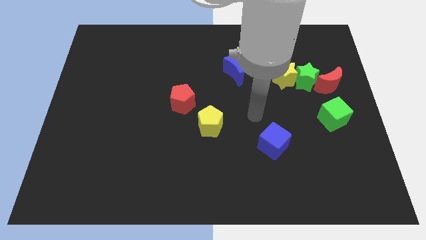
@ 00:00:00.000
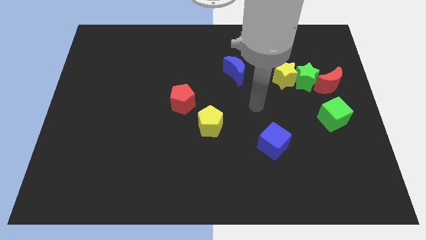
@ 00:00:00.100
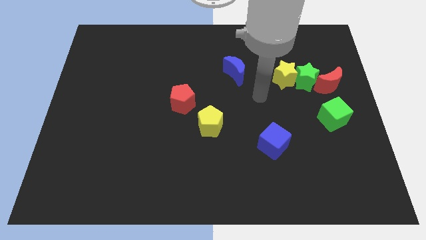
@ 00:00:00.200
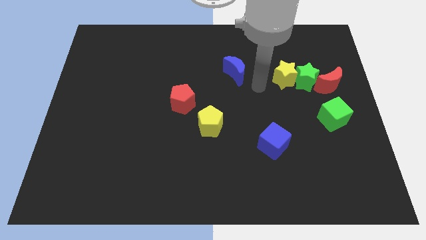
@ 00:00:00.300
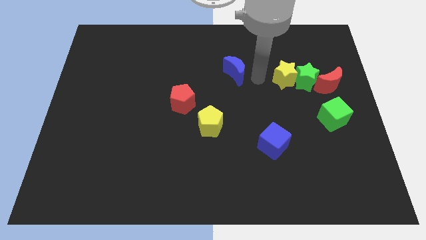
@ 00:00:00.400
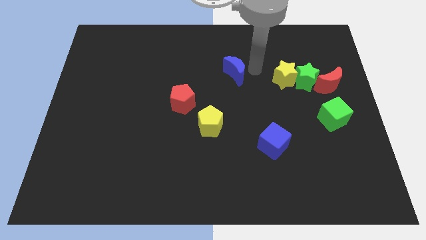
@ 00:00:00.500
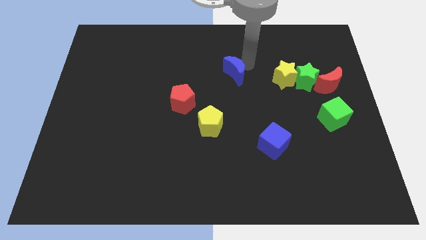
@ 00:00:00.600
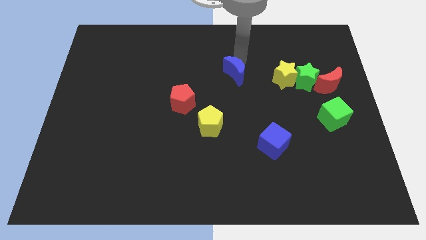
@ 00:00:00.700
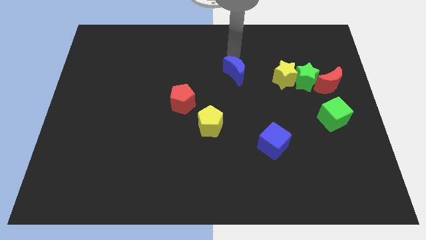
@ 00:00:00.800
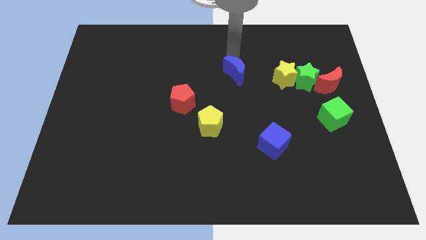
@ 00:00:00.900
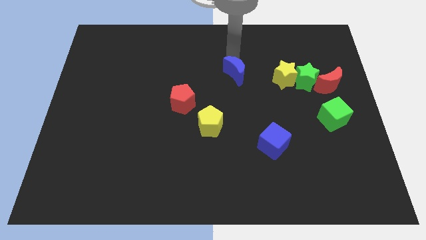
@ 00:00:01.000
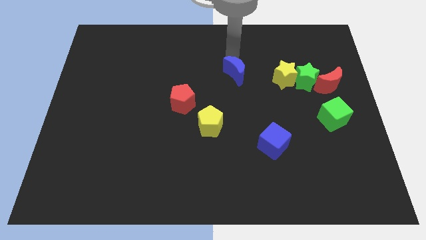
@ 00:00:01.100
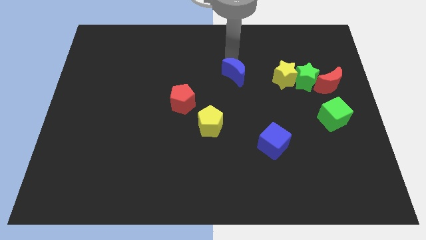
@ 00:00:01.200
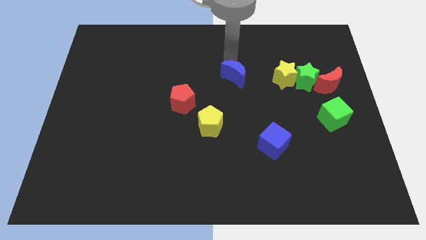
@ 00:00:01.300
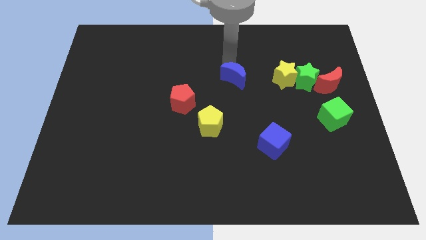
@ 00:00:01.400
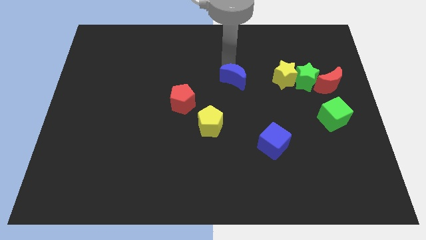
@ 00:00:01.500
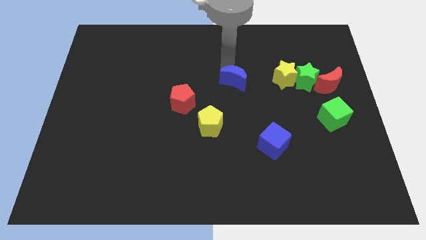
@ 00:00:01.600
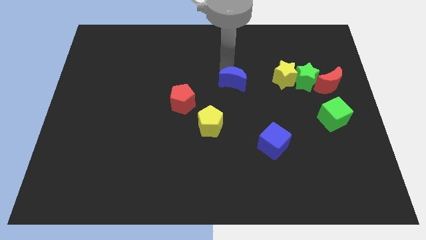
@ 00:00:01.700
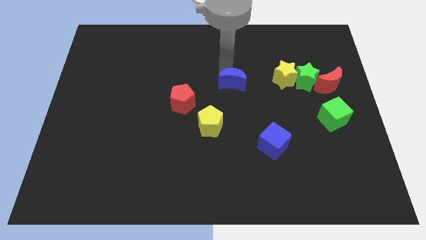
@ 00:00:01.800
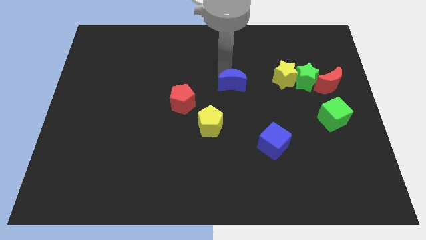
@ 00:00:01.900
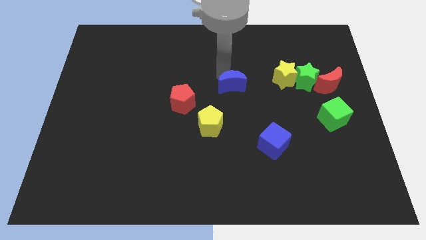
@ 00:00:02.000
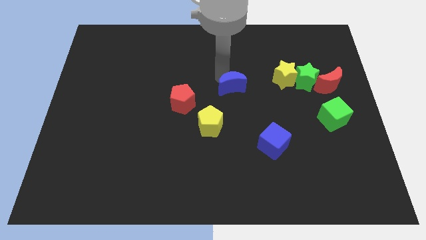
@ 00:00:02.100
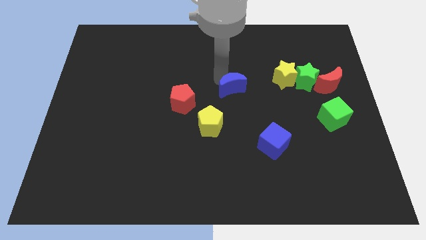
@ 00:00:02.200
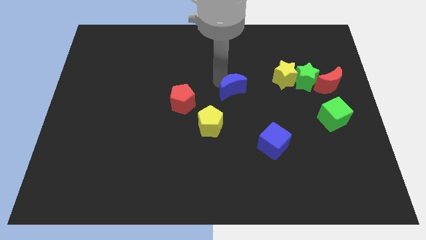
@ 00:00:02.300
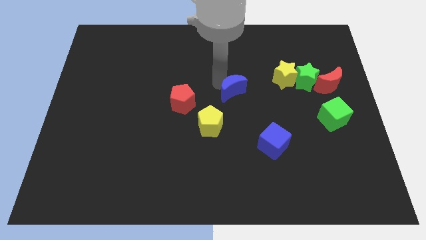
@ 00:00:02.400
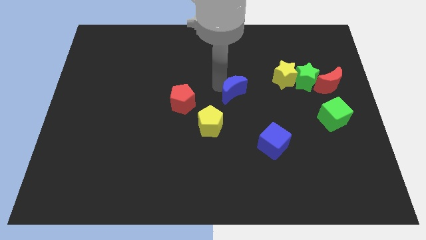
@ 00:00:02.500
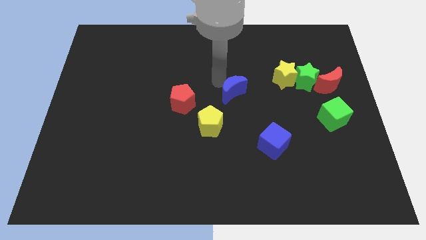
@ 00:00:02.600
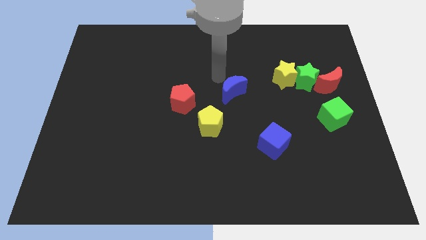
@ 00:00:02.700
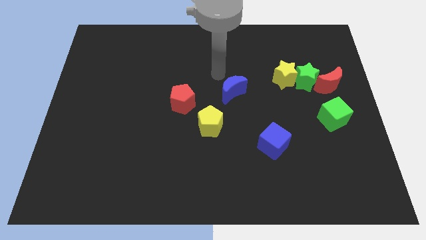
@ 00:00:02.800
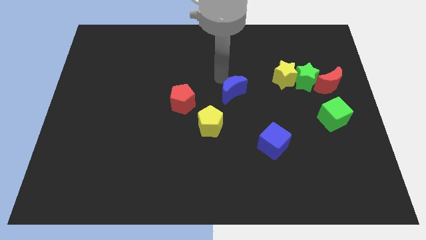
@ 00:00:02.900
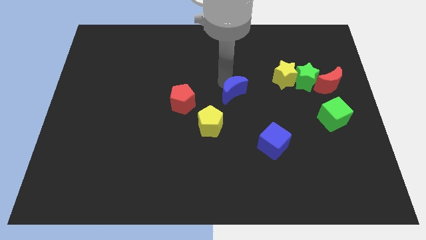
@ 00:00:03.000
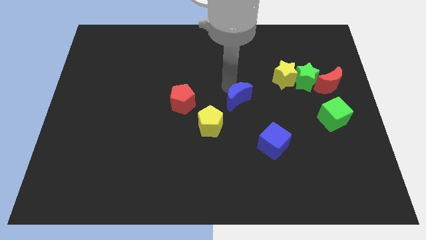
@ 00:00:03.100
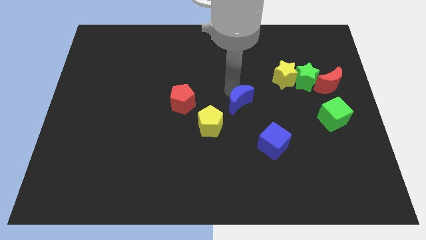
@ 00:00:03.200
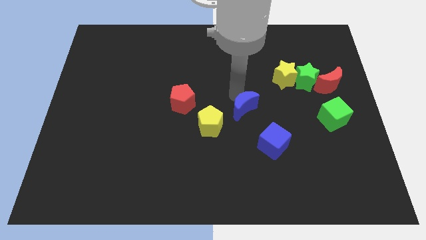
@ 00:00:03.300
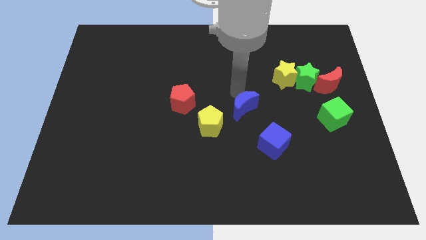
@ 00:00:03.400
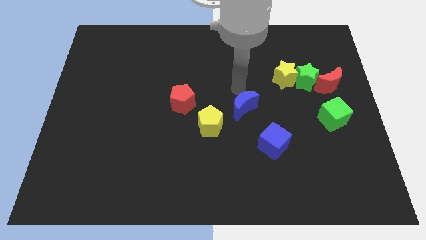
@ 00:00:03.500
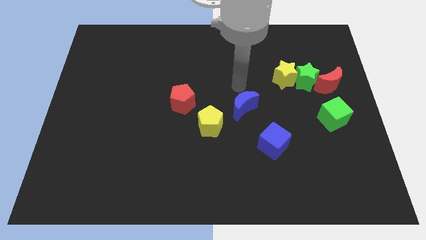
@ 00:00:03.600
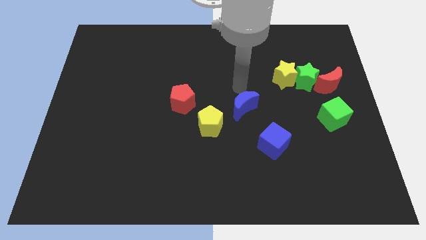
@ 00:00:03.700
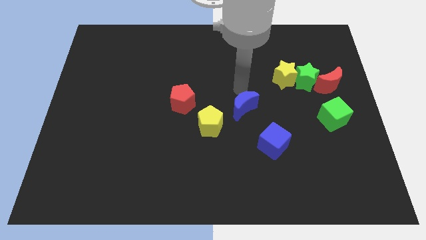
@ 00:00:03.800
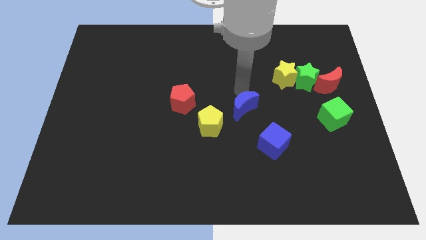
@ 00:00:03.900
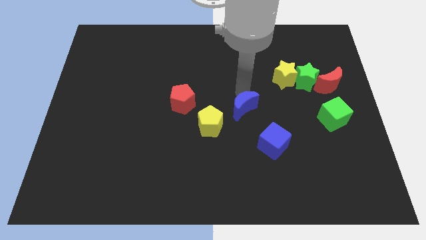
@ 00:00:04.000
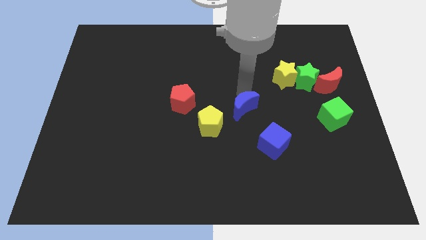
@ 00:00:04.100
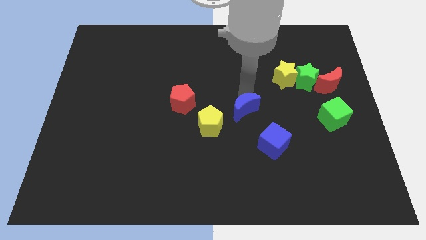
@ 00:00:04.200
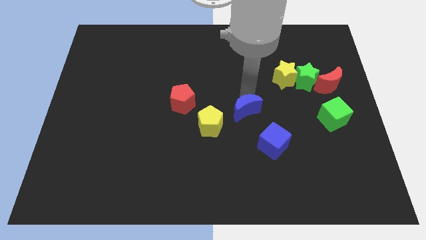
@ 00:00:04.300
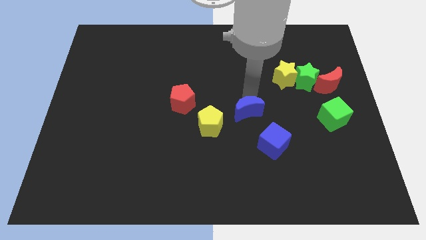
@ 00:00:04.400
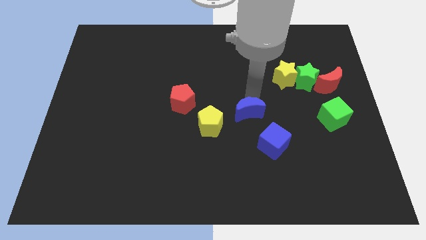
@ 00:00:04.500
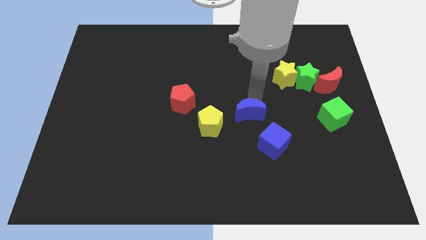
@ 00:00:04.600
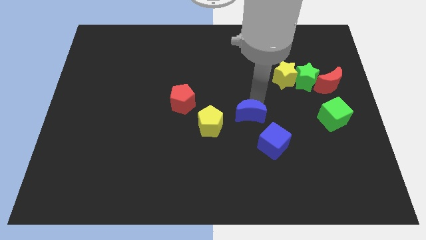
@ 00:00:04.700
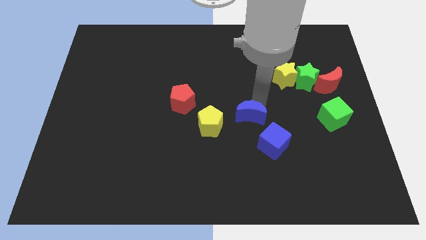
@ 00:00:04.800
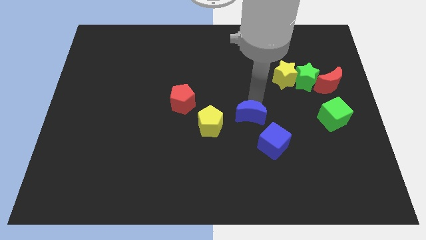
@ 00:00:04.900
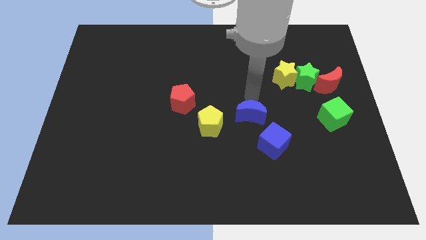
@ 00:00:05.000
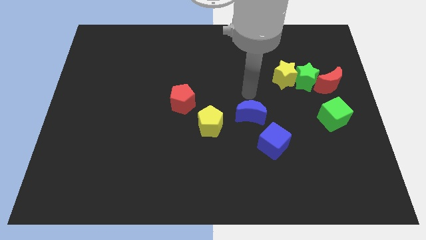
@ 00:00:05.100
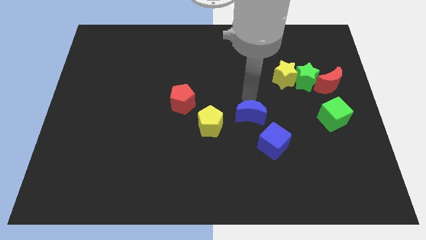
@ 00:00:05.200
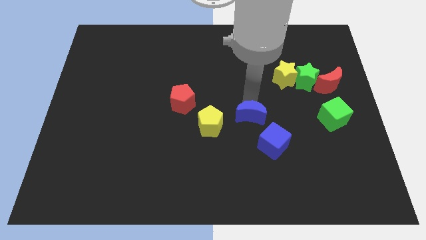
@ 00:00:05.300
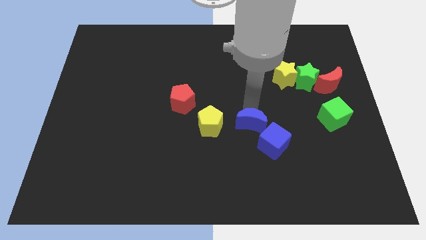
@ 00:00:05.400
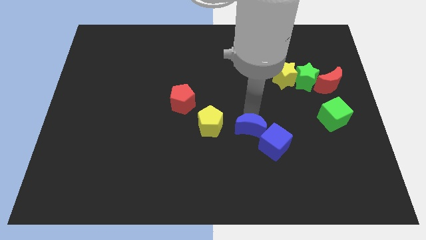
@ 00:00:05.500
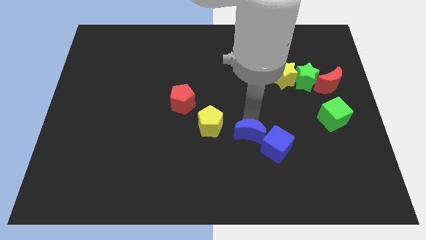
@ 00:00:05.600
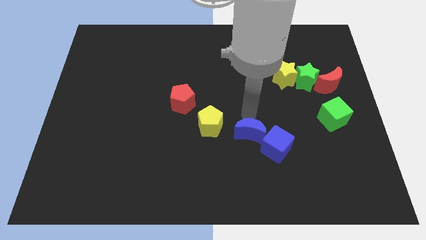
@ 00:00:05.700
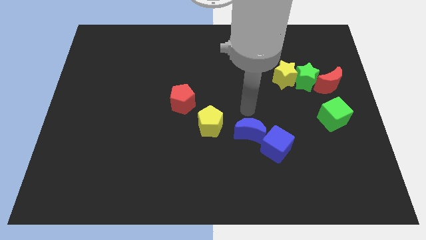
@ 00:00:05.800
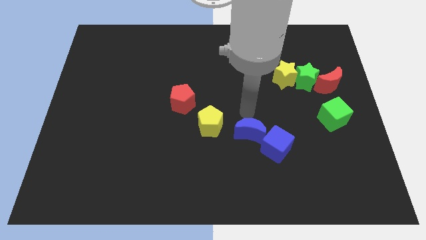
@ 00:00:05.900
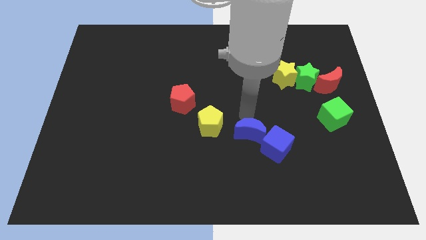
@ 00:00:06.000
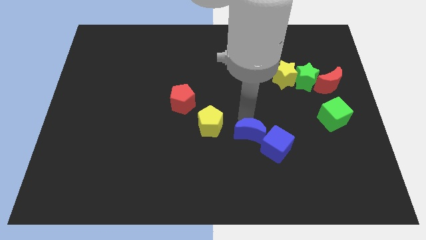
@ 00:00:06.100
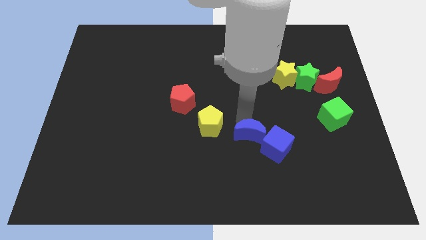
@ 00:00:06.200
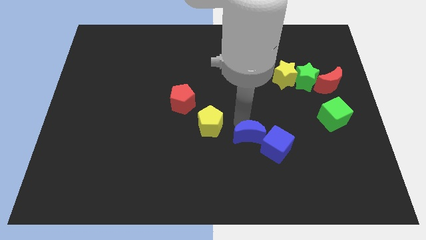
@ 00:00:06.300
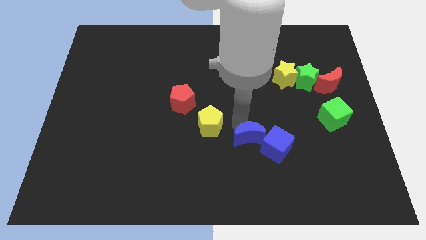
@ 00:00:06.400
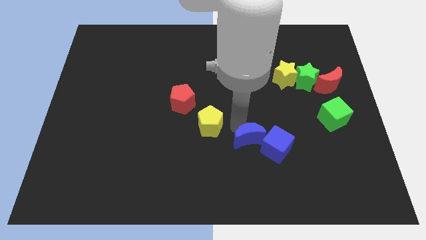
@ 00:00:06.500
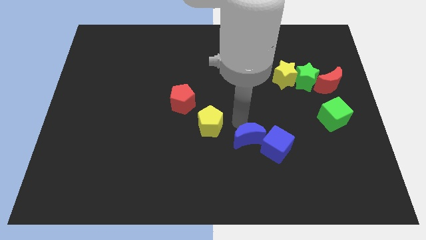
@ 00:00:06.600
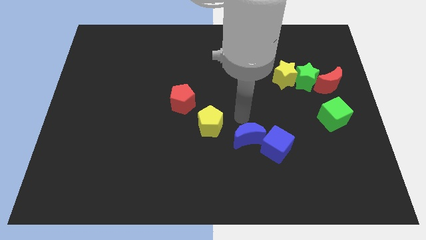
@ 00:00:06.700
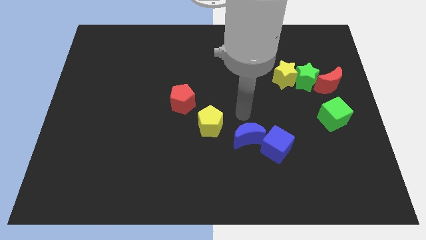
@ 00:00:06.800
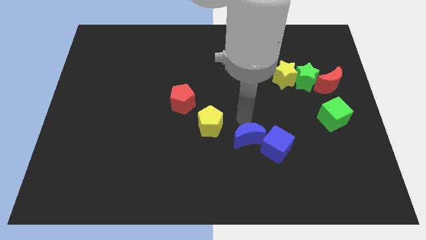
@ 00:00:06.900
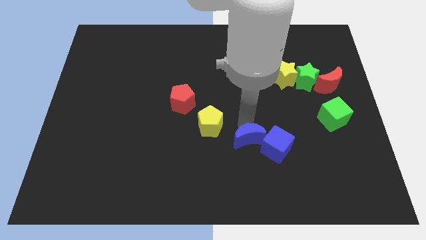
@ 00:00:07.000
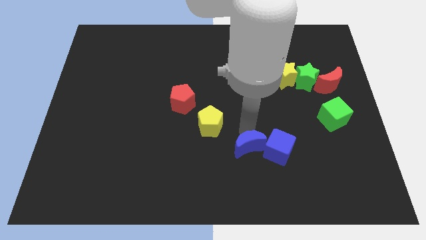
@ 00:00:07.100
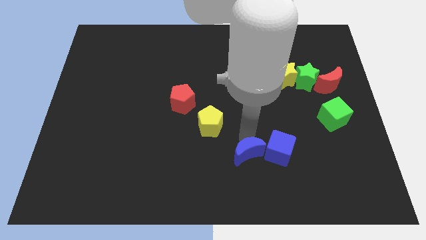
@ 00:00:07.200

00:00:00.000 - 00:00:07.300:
put the blue moon to the bottom left of the blue cube
